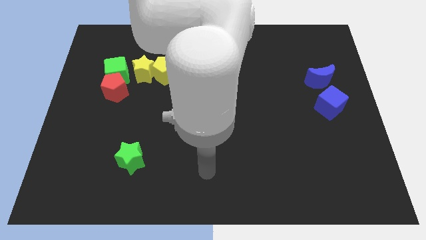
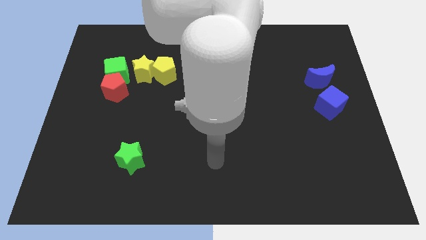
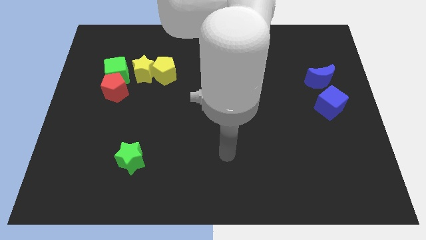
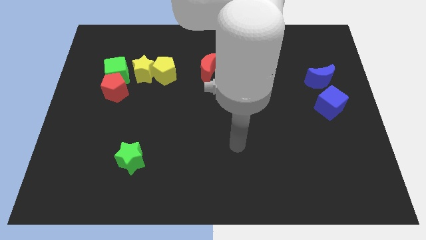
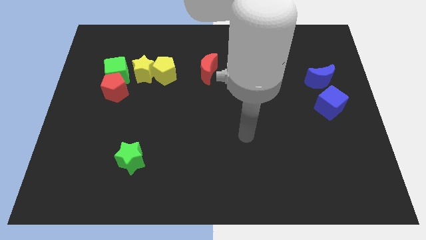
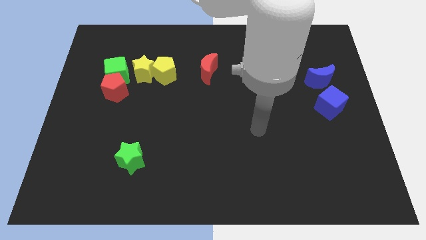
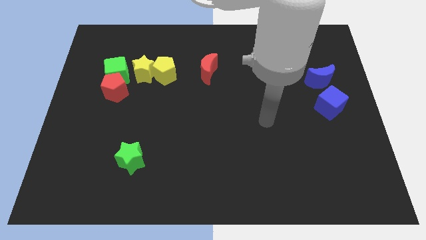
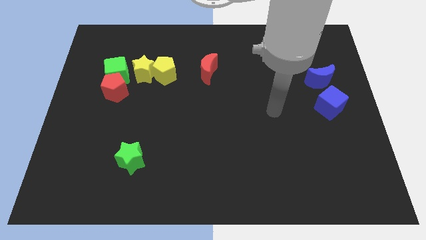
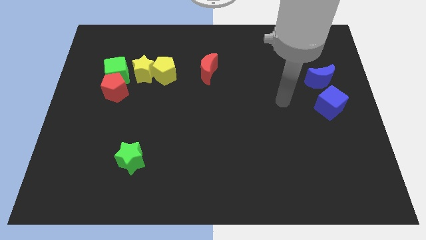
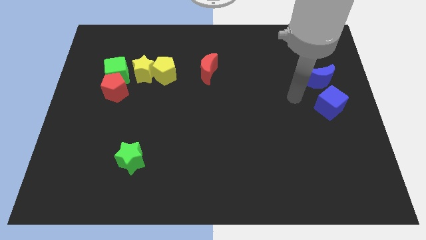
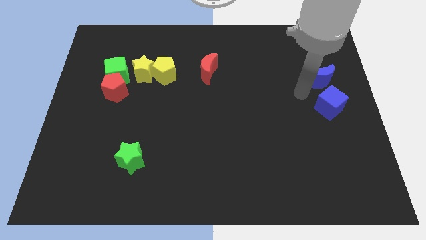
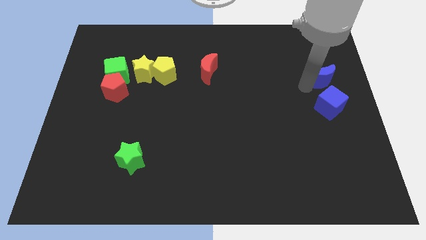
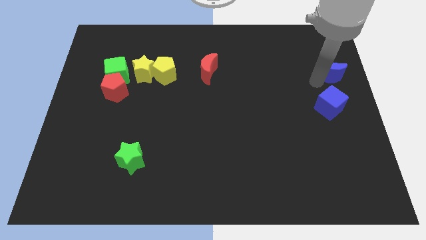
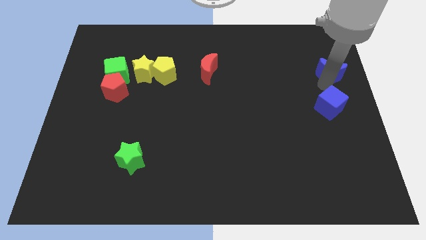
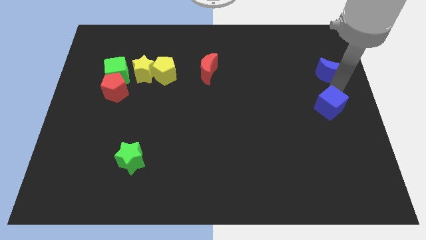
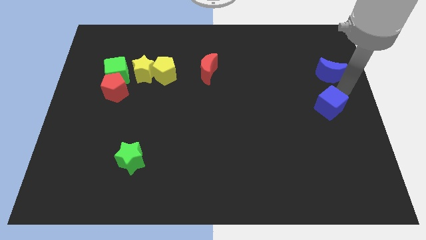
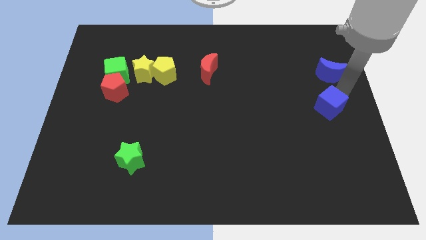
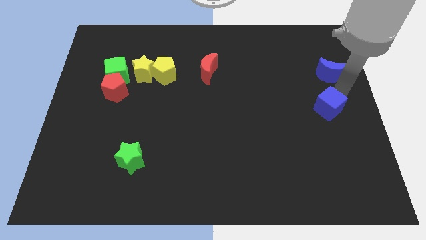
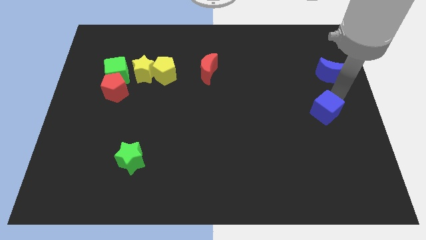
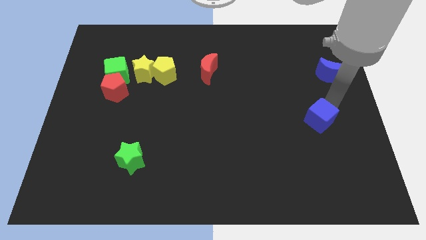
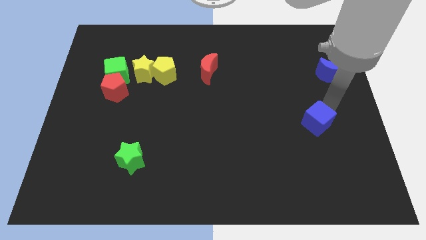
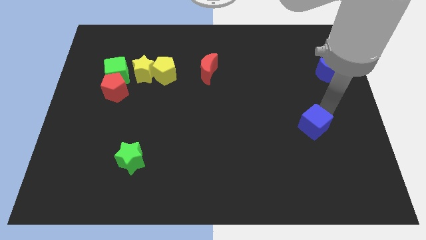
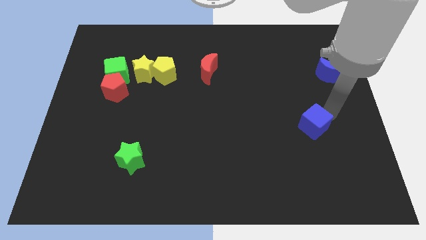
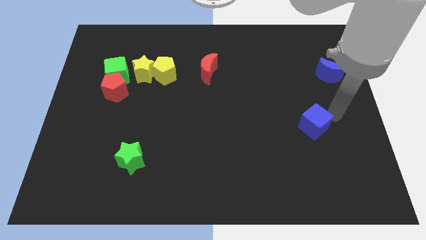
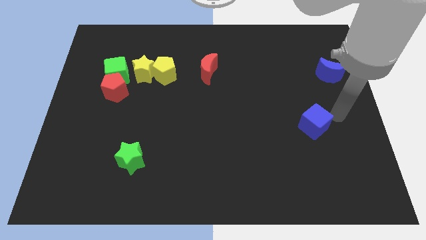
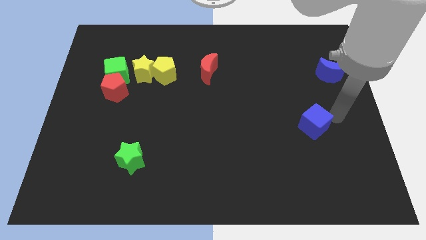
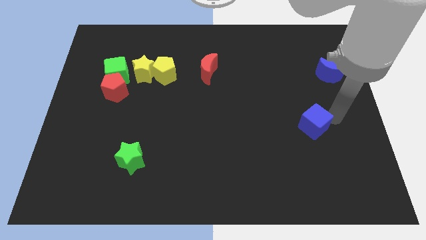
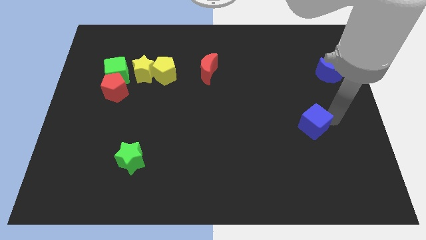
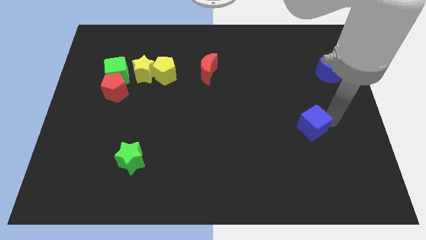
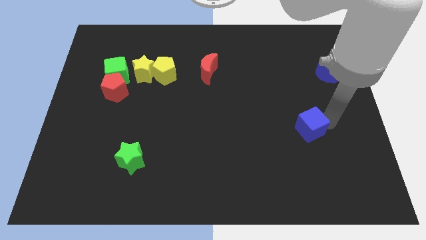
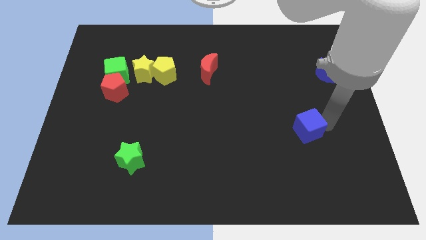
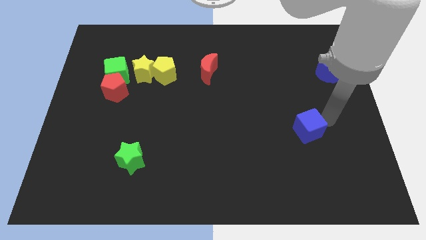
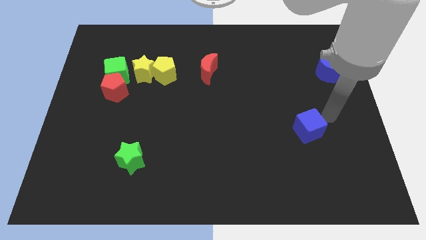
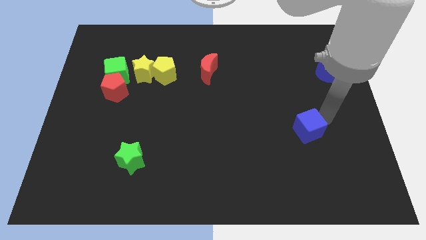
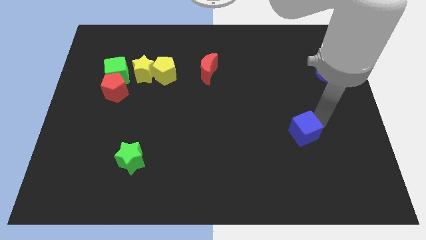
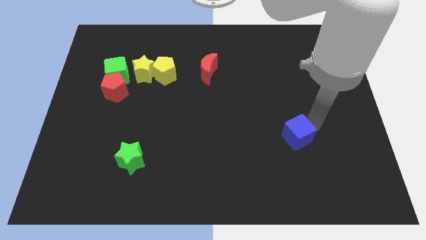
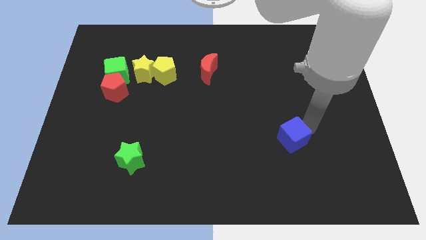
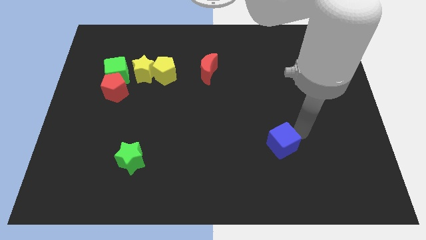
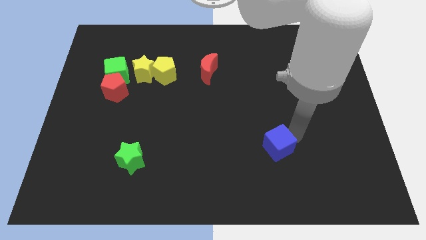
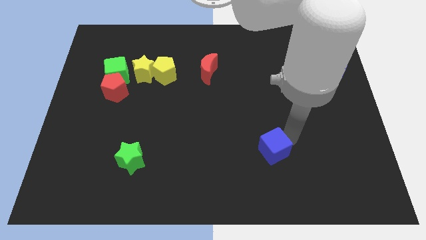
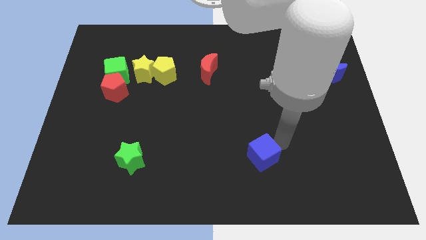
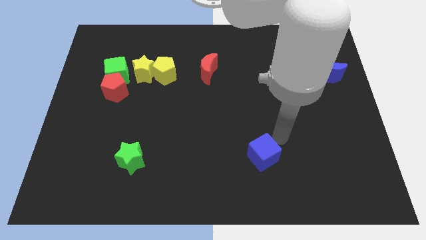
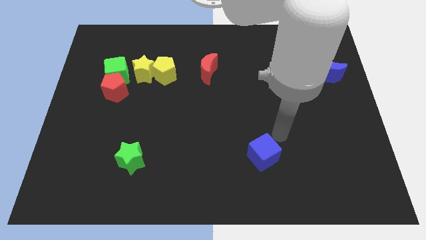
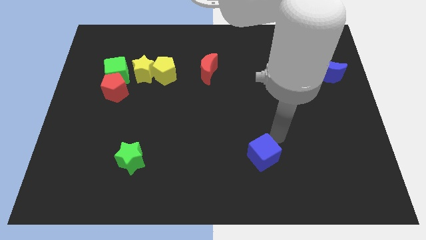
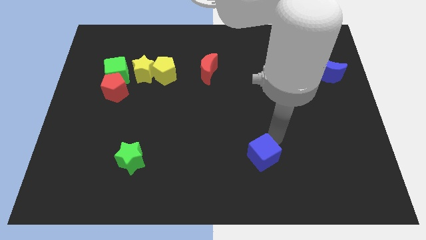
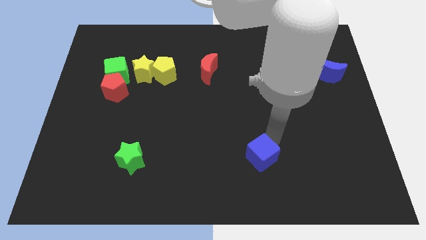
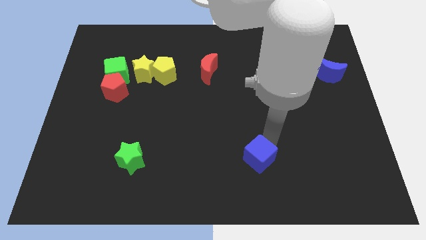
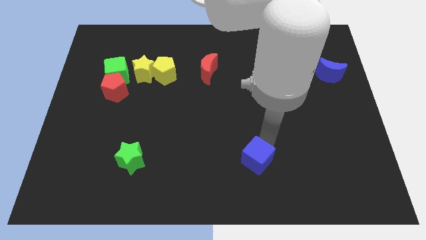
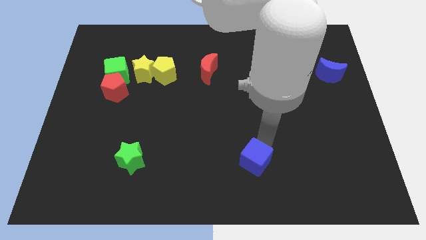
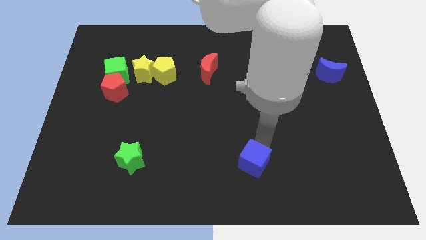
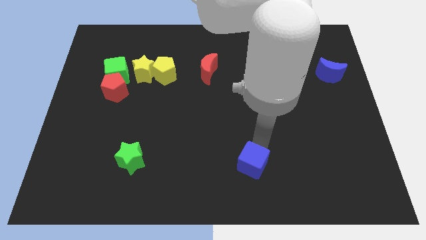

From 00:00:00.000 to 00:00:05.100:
put the blue cube to the bottom side

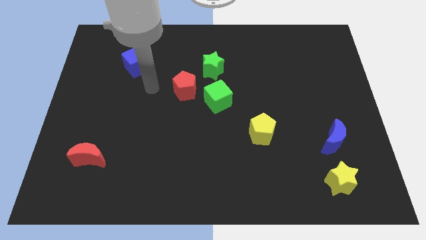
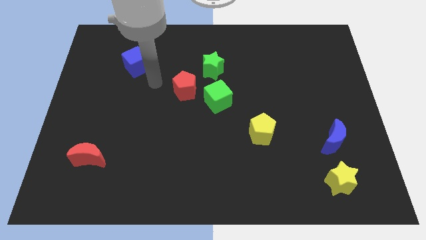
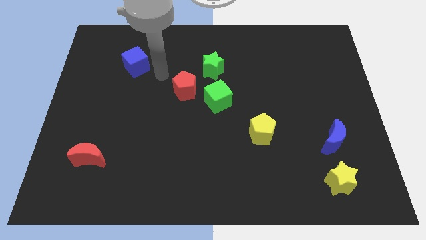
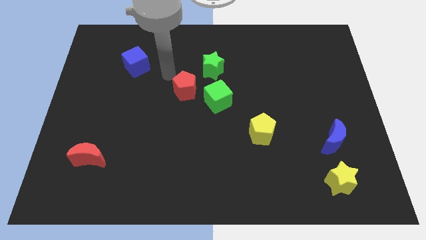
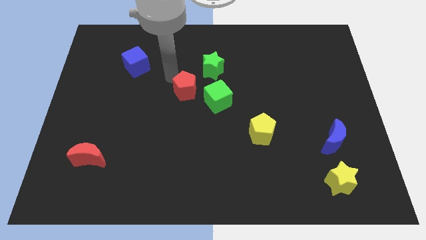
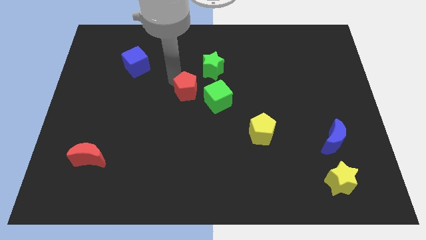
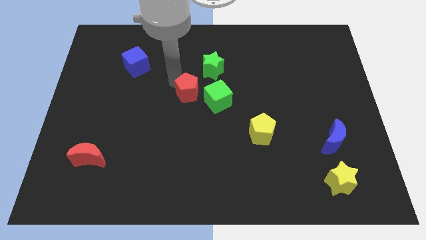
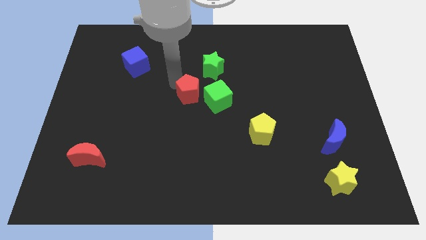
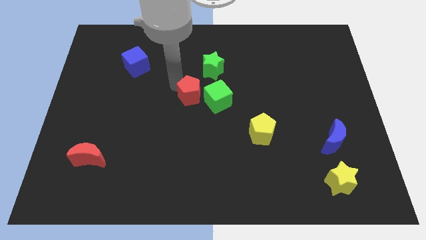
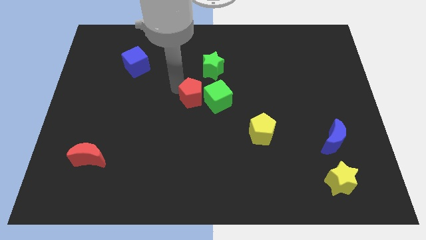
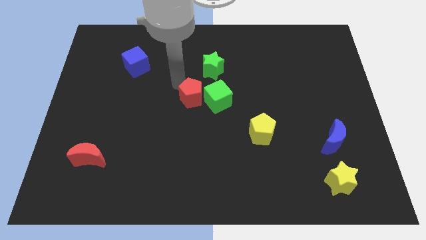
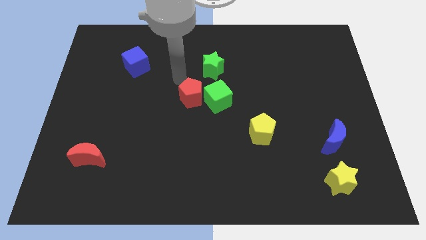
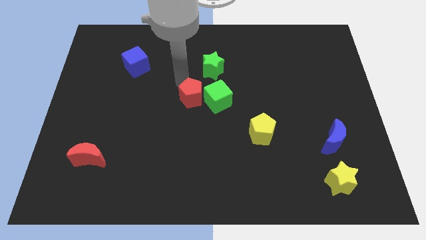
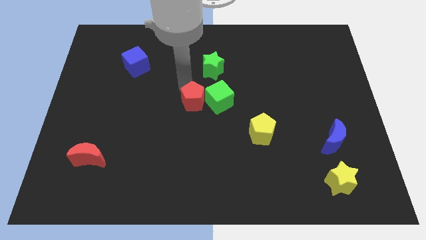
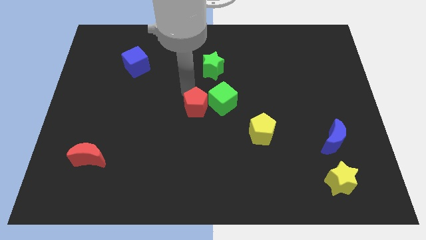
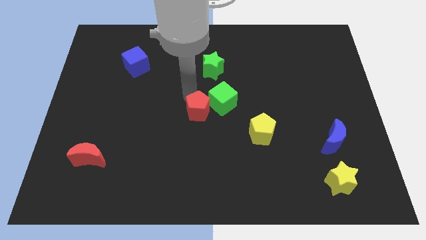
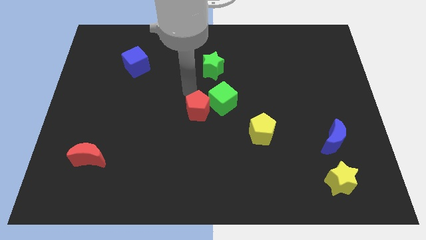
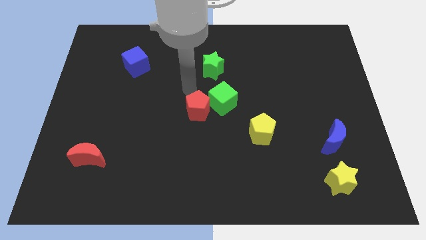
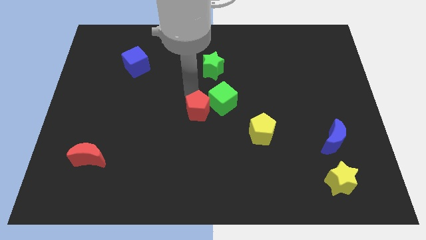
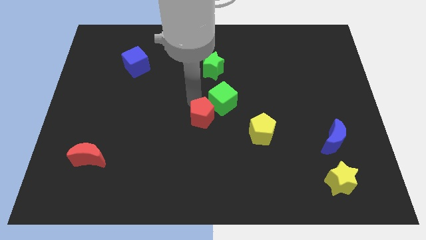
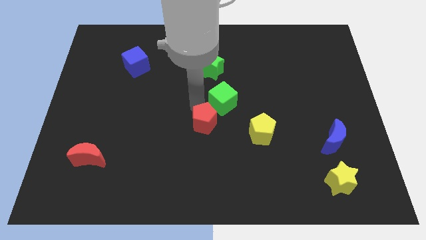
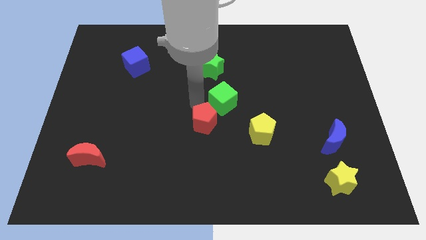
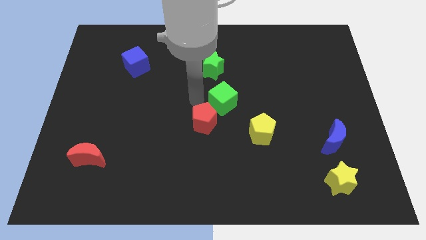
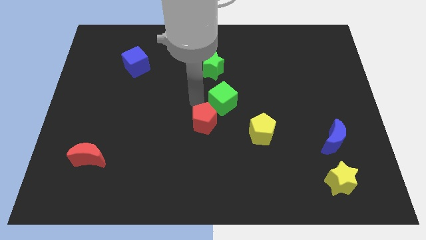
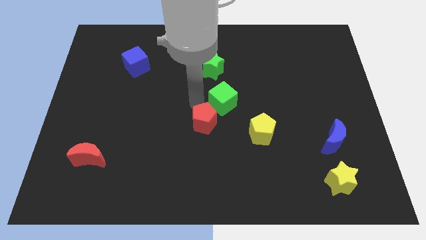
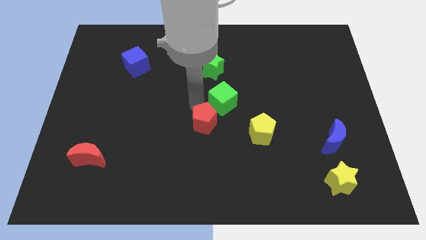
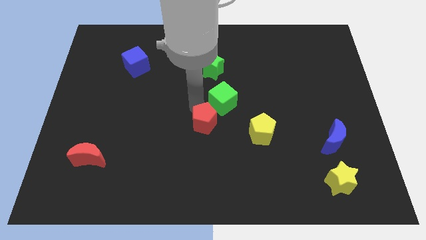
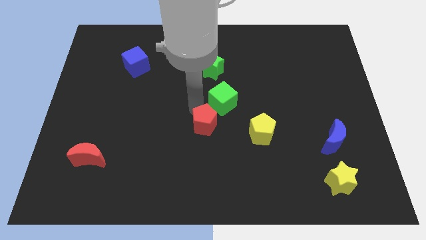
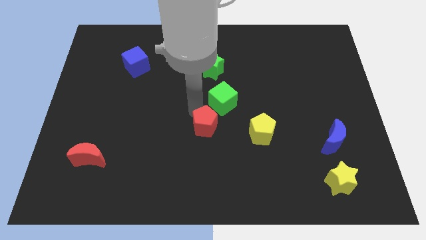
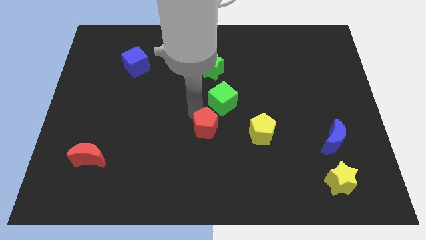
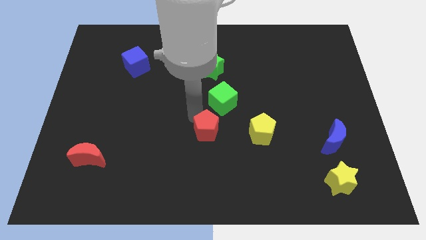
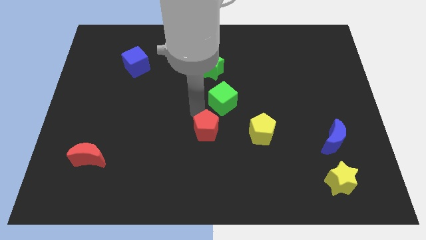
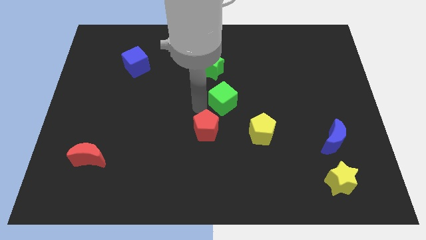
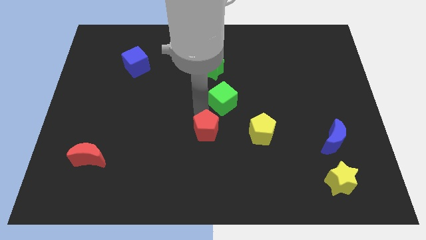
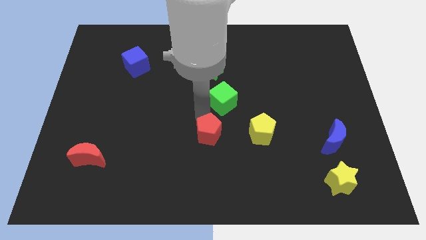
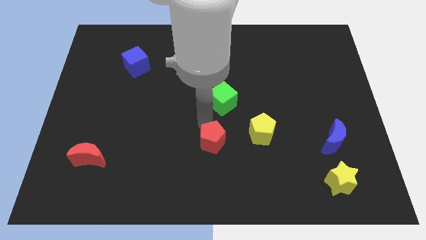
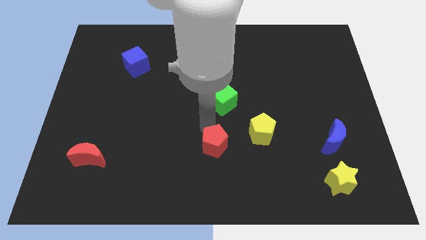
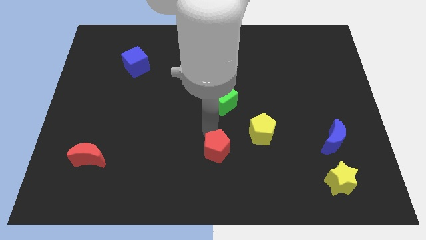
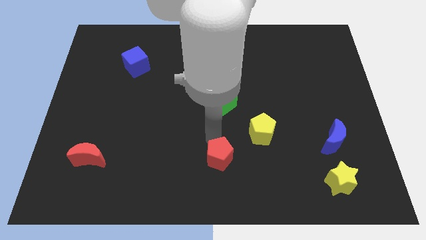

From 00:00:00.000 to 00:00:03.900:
put the red pentagon to the bottom side

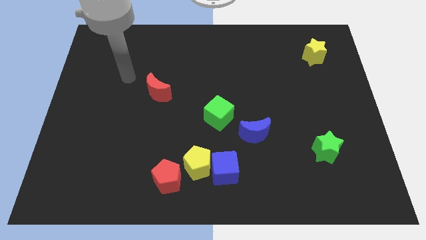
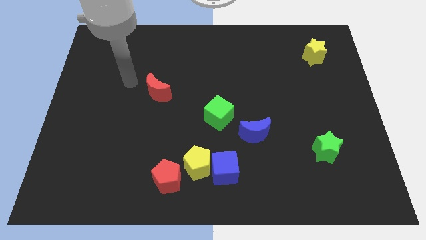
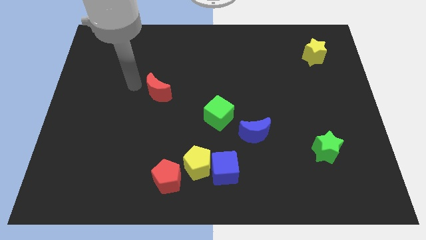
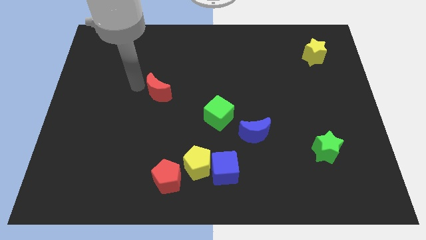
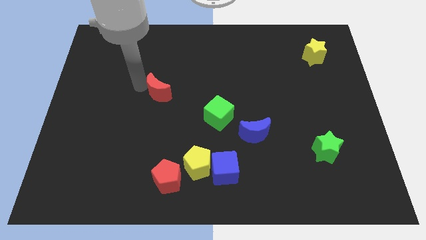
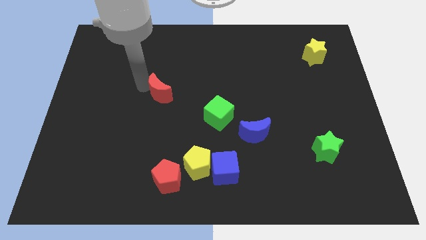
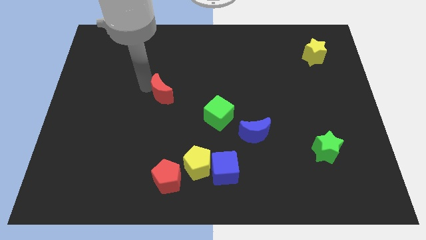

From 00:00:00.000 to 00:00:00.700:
slide the red moon to the middle
